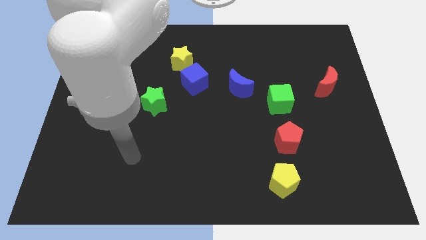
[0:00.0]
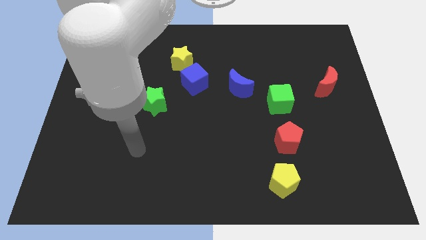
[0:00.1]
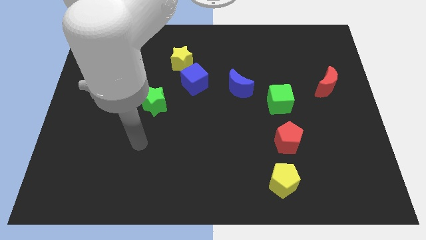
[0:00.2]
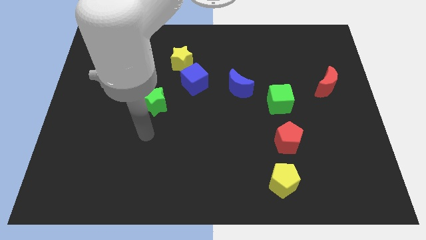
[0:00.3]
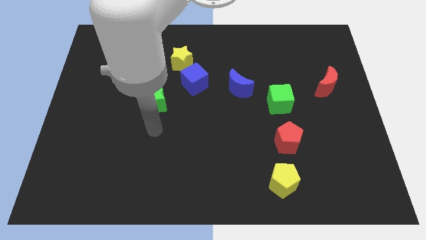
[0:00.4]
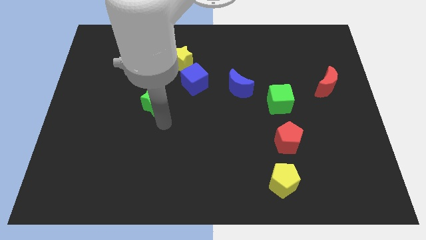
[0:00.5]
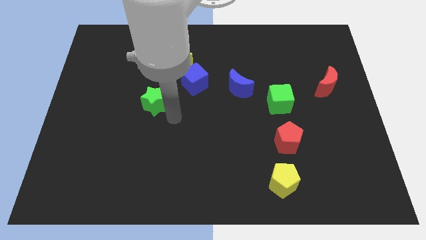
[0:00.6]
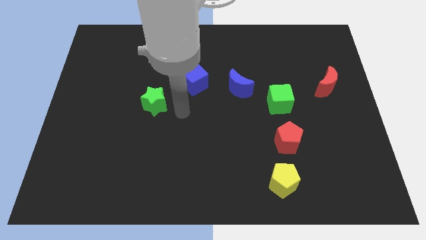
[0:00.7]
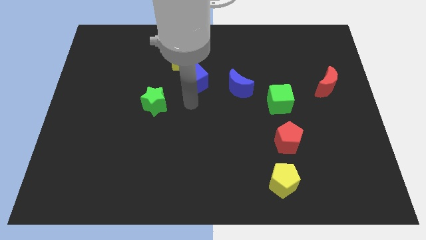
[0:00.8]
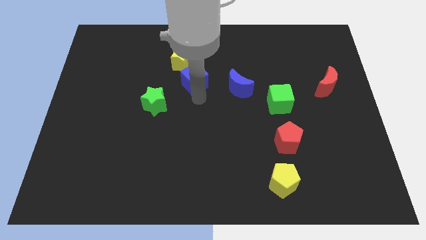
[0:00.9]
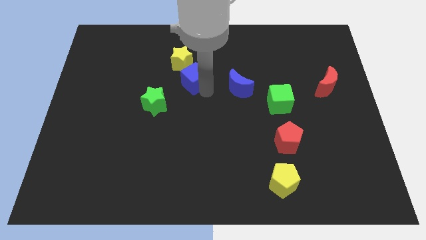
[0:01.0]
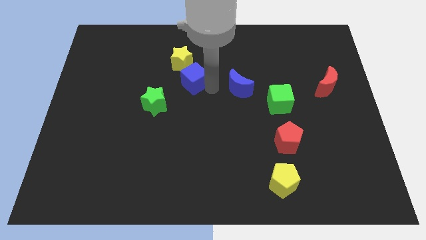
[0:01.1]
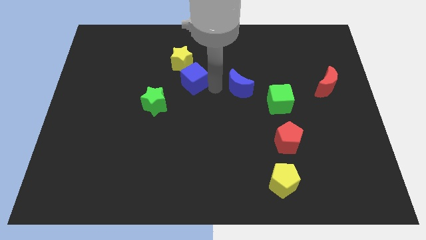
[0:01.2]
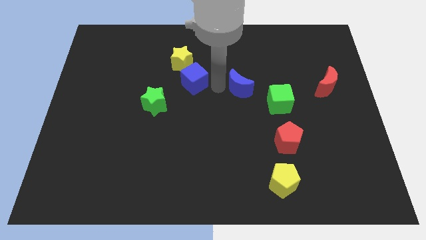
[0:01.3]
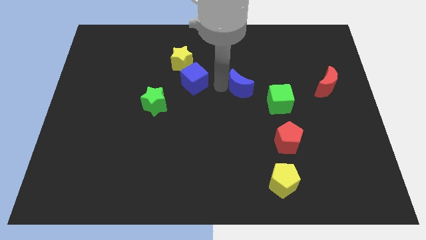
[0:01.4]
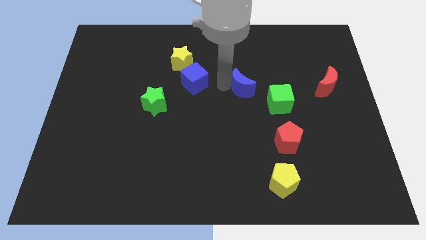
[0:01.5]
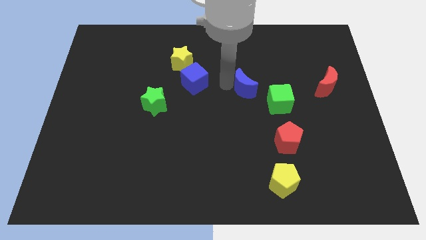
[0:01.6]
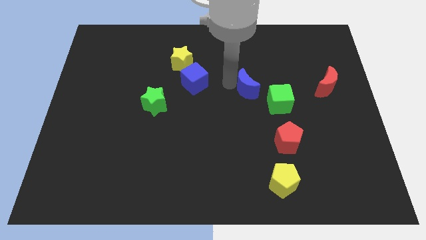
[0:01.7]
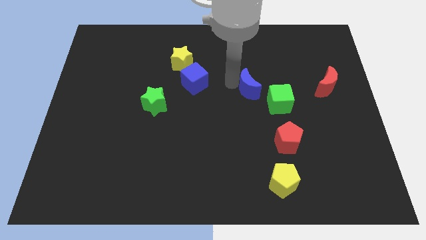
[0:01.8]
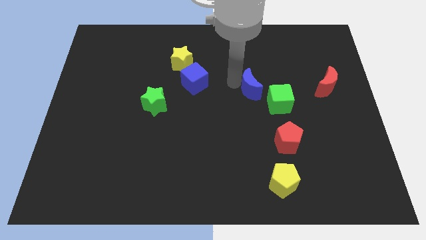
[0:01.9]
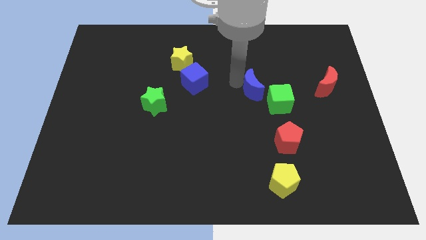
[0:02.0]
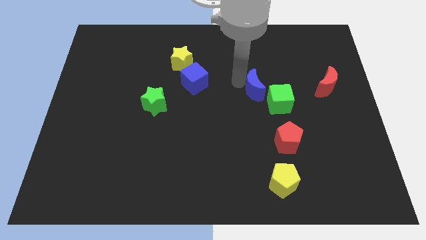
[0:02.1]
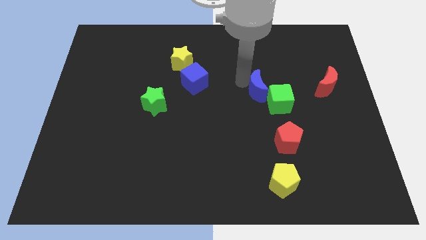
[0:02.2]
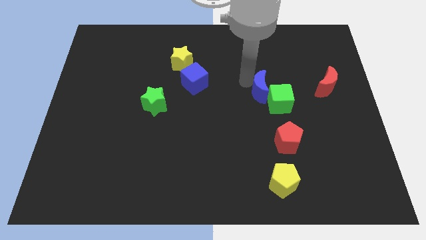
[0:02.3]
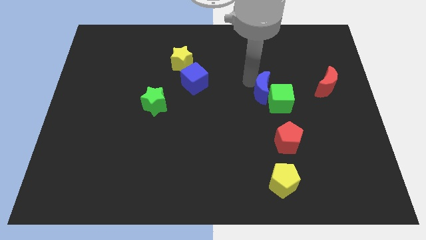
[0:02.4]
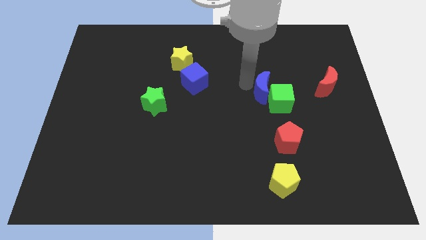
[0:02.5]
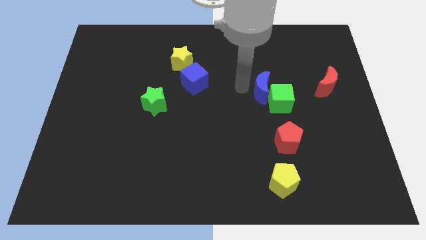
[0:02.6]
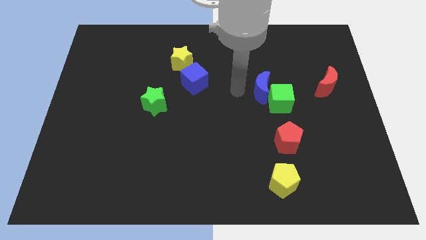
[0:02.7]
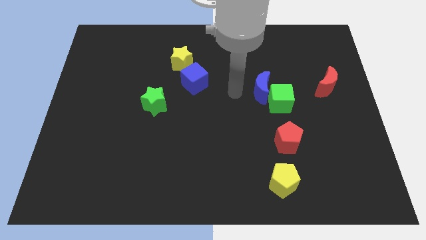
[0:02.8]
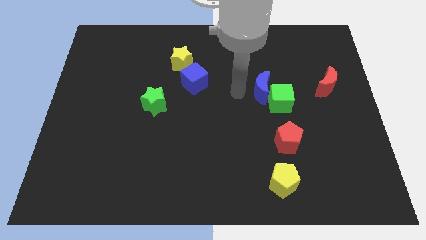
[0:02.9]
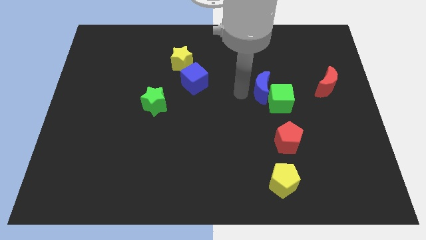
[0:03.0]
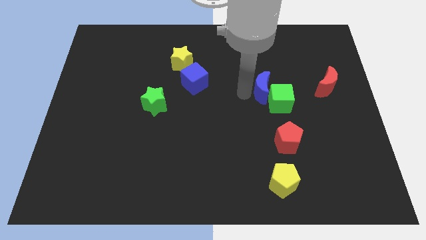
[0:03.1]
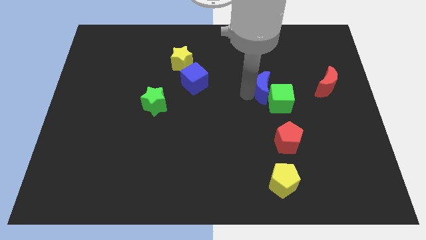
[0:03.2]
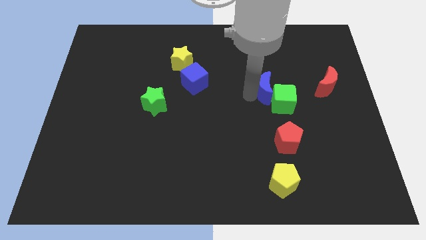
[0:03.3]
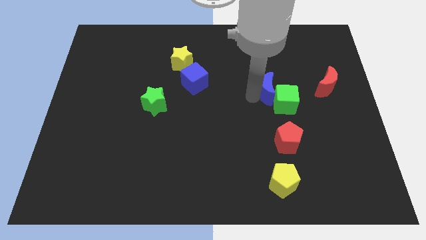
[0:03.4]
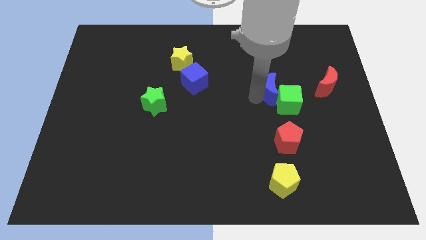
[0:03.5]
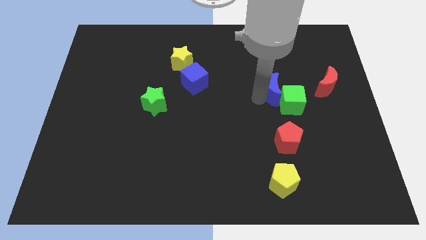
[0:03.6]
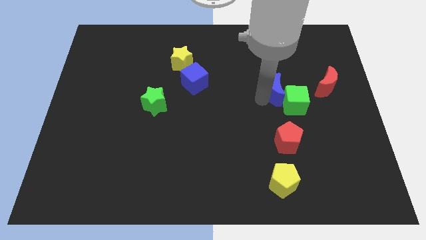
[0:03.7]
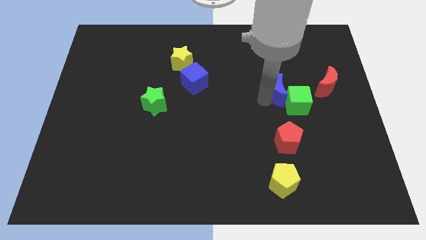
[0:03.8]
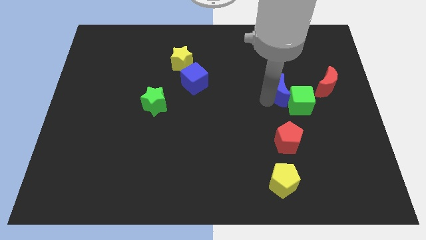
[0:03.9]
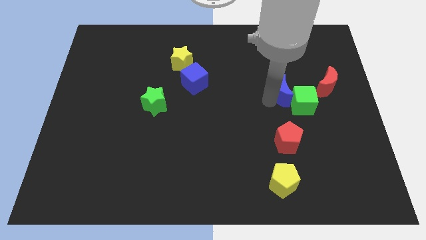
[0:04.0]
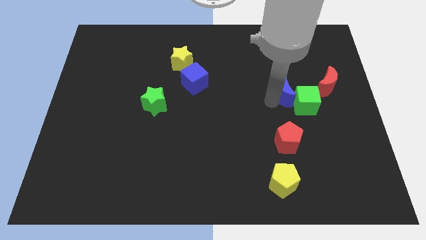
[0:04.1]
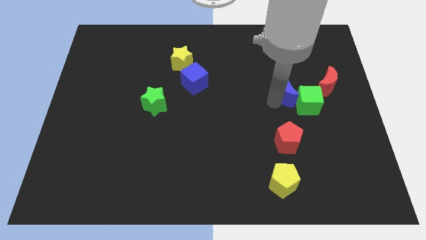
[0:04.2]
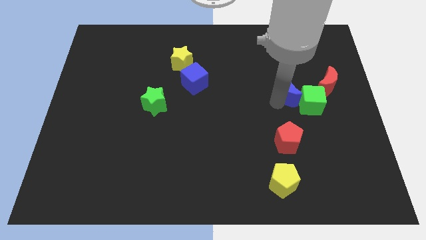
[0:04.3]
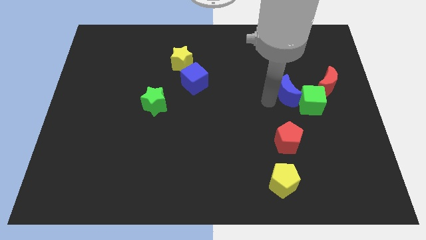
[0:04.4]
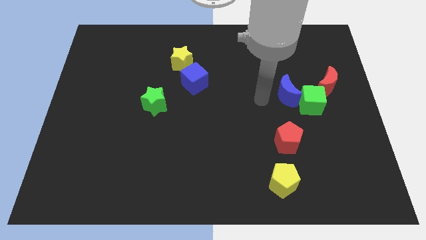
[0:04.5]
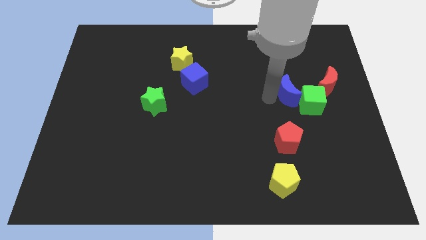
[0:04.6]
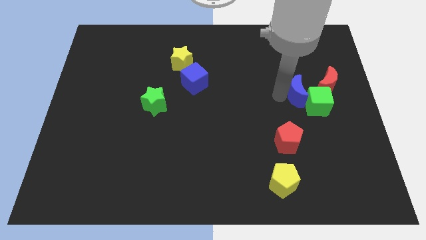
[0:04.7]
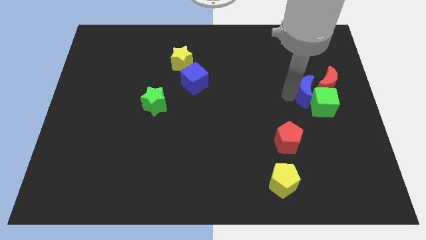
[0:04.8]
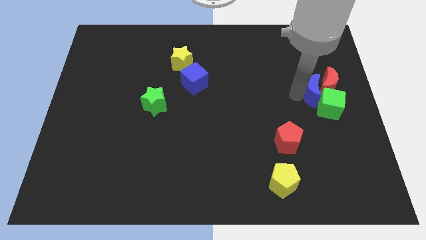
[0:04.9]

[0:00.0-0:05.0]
slide the blue moon next to the red moon

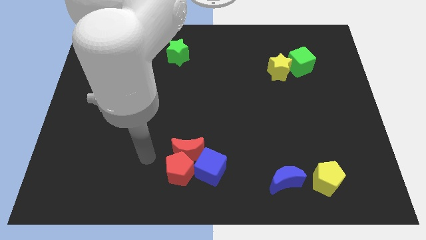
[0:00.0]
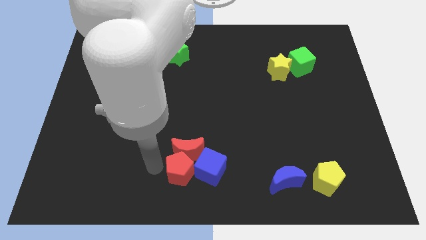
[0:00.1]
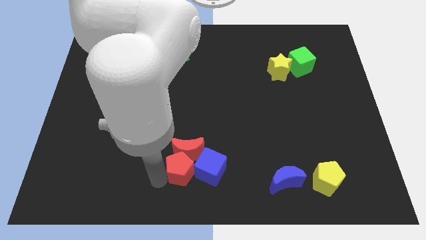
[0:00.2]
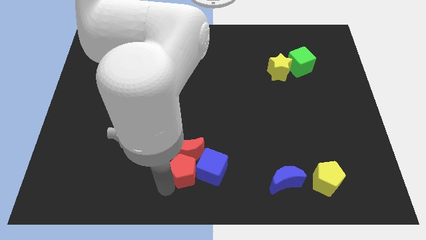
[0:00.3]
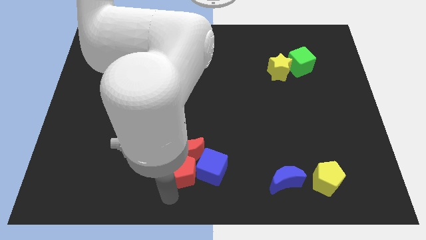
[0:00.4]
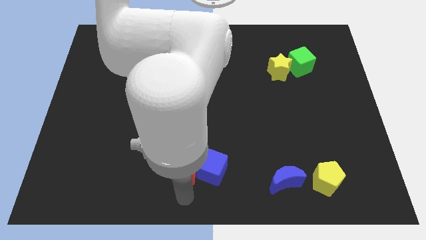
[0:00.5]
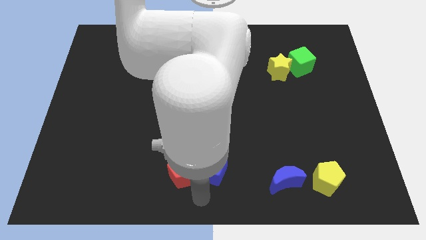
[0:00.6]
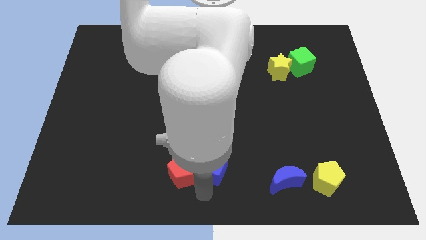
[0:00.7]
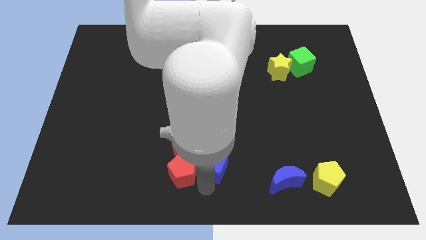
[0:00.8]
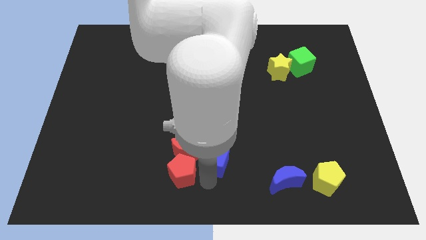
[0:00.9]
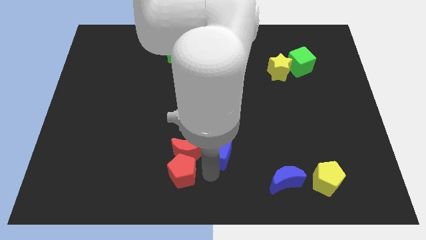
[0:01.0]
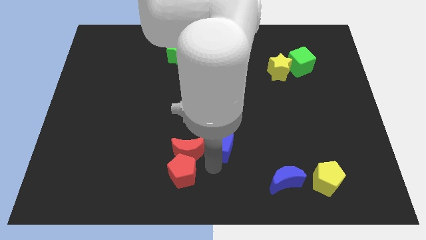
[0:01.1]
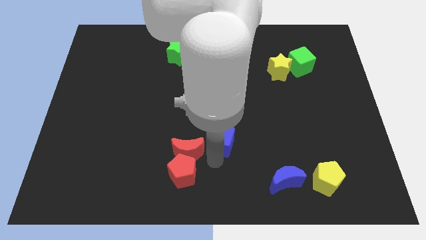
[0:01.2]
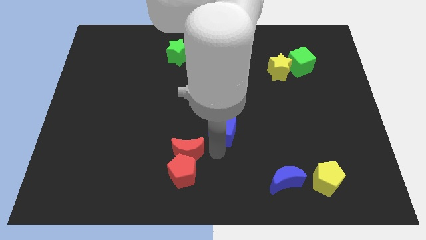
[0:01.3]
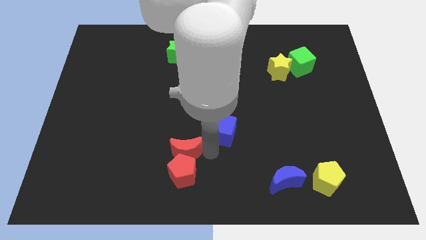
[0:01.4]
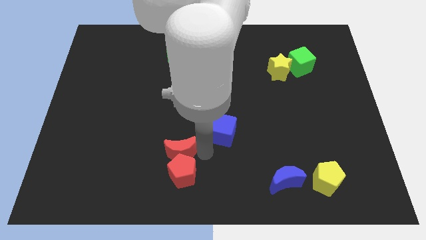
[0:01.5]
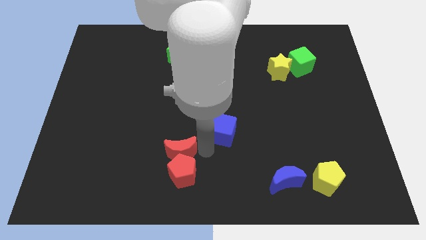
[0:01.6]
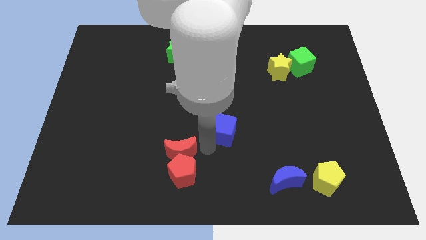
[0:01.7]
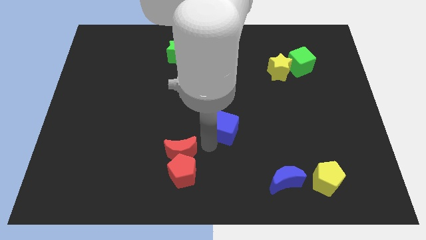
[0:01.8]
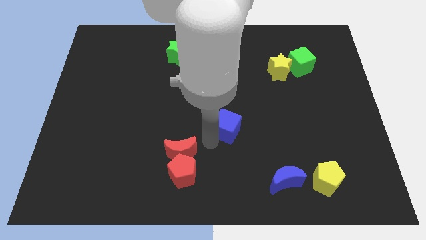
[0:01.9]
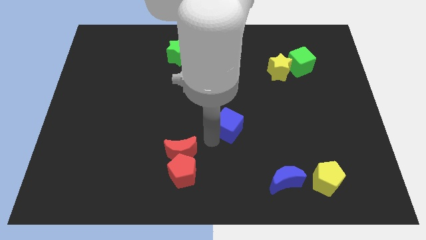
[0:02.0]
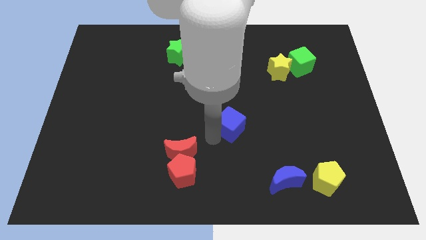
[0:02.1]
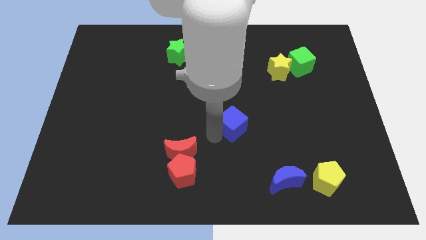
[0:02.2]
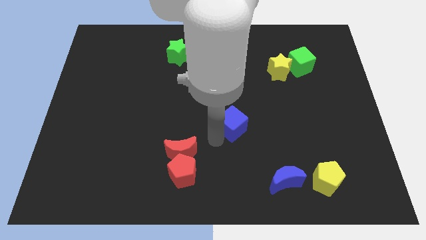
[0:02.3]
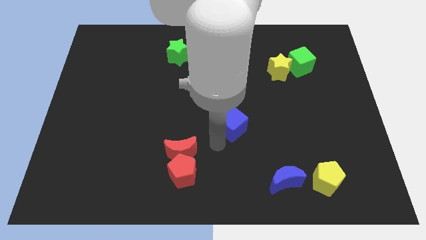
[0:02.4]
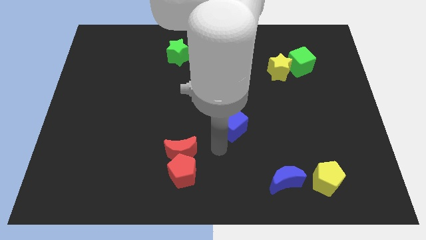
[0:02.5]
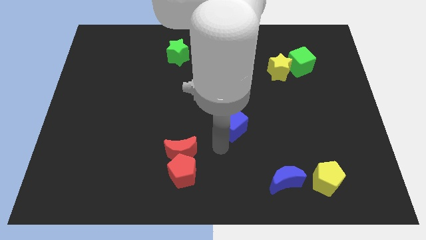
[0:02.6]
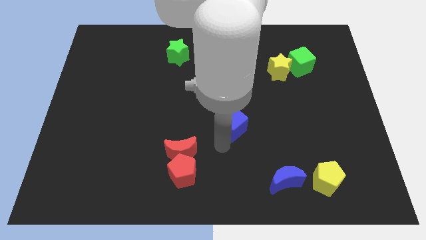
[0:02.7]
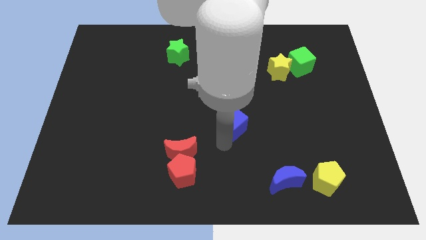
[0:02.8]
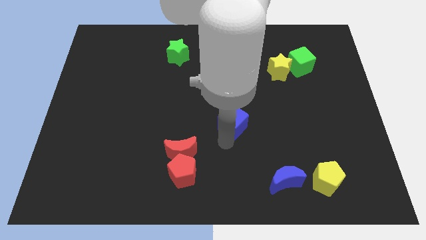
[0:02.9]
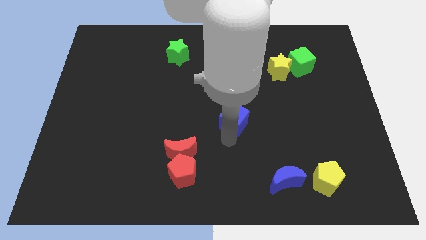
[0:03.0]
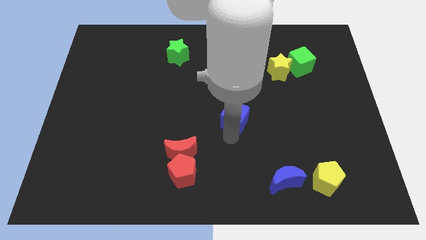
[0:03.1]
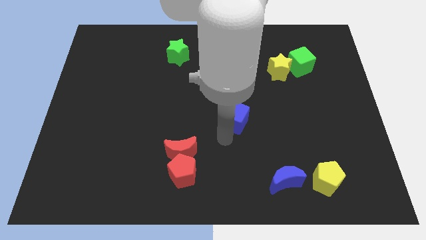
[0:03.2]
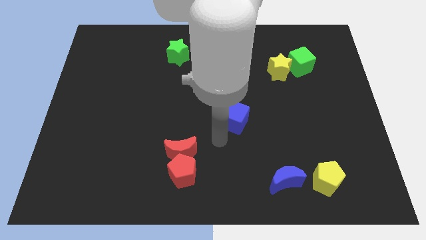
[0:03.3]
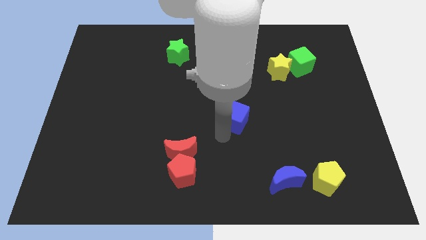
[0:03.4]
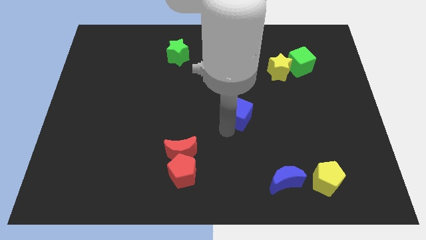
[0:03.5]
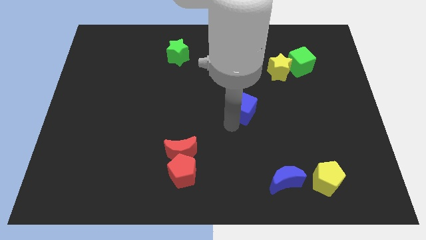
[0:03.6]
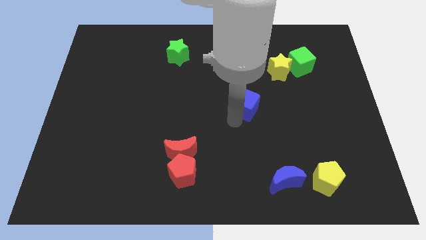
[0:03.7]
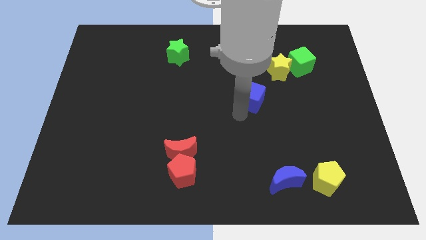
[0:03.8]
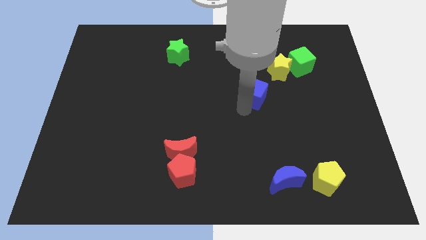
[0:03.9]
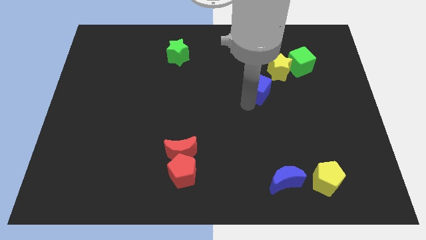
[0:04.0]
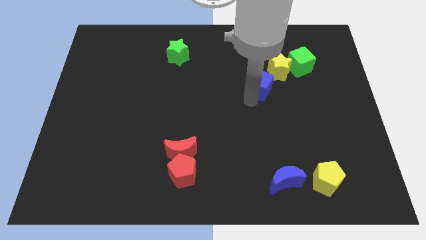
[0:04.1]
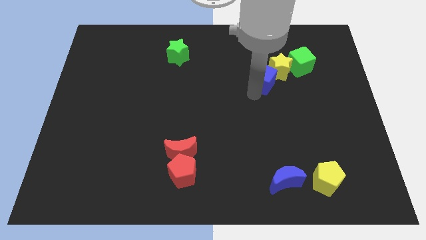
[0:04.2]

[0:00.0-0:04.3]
push the blue cube towards the yellow star
